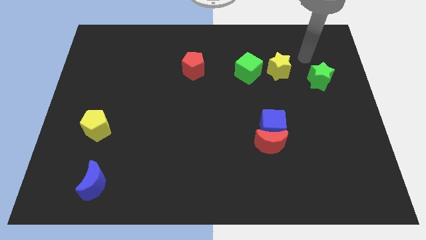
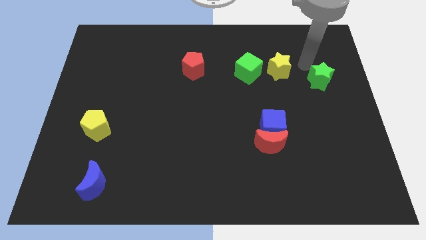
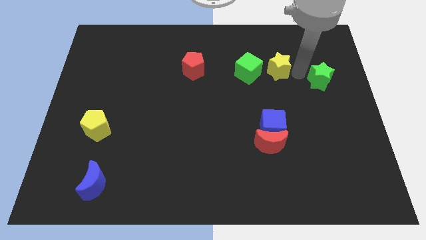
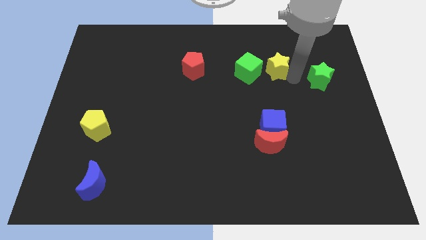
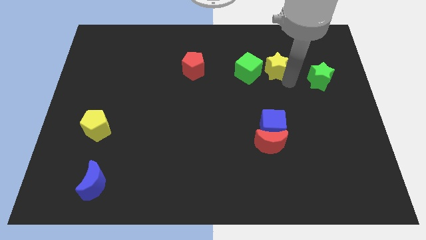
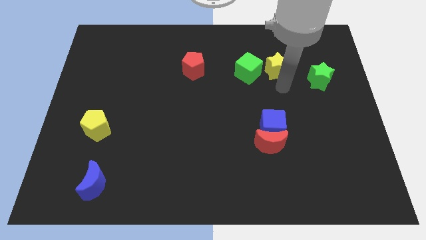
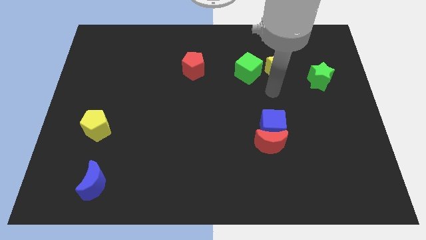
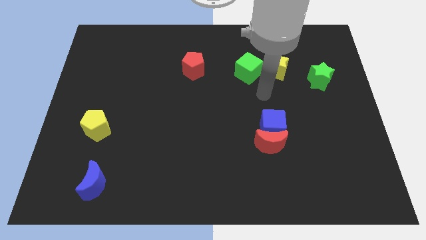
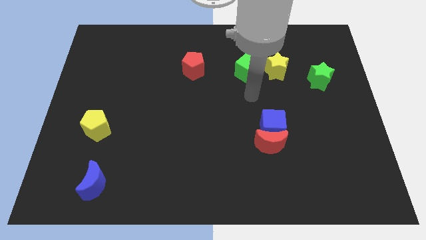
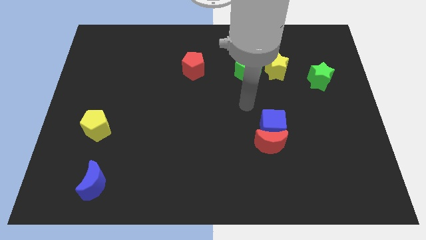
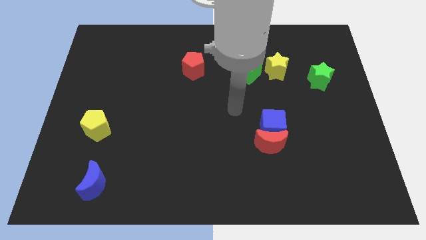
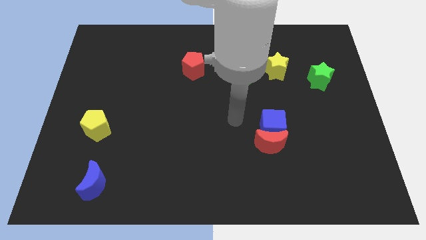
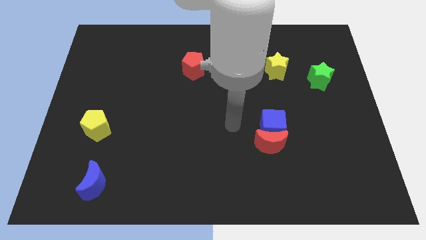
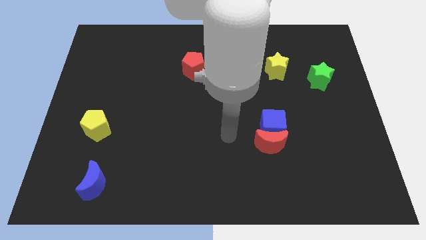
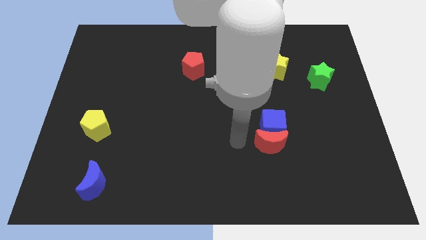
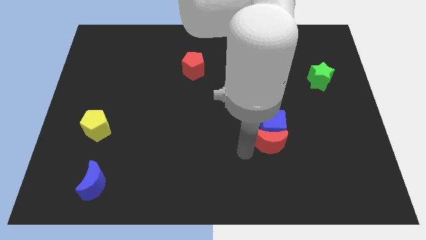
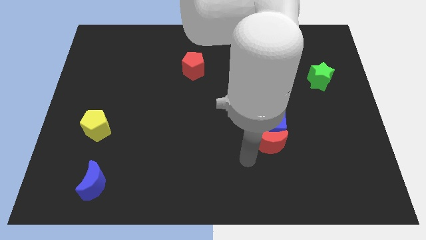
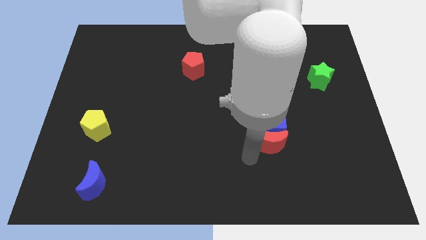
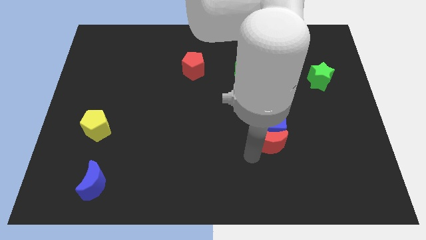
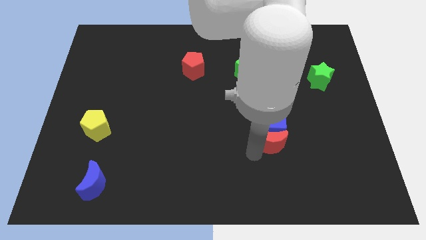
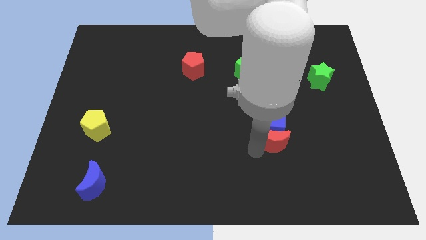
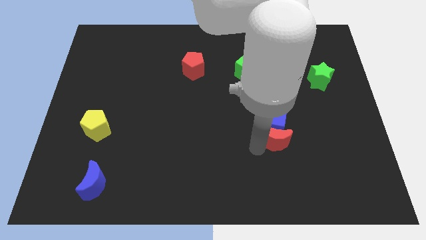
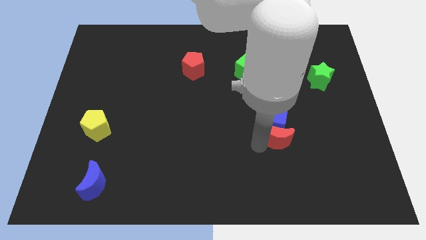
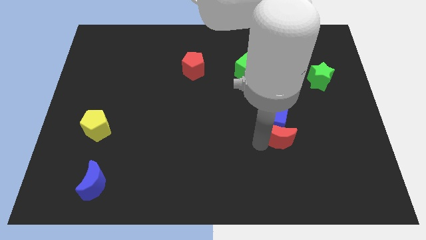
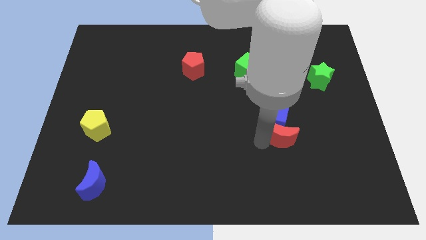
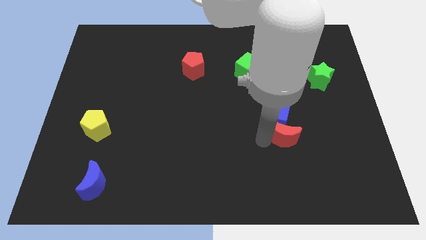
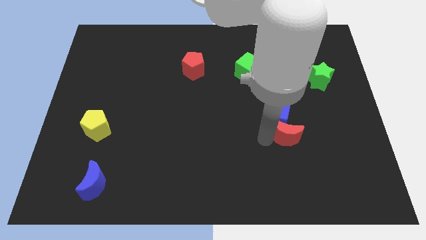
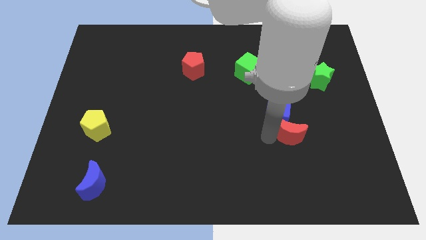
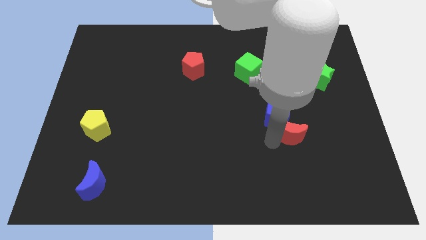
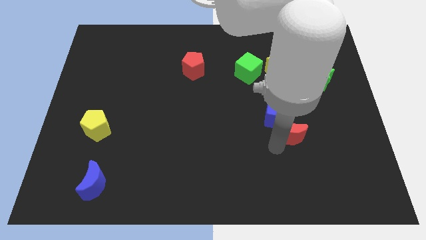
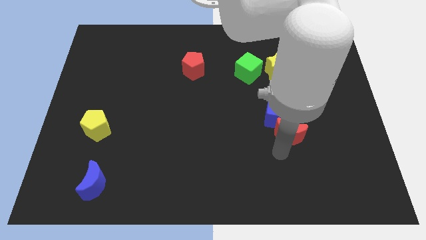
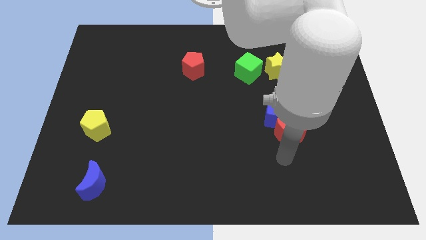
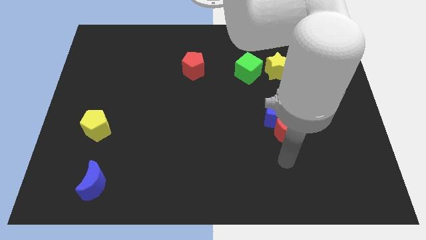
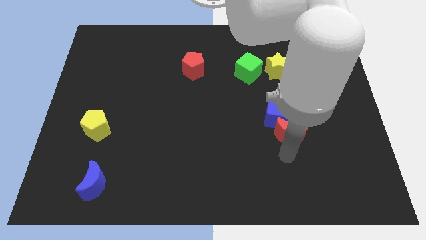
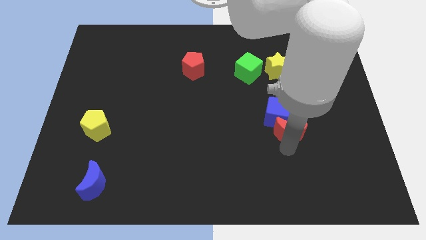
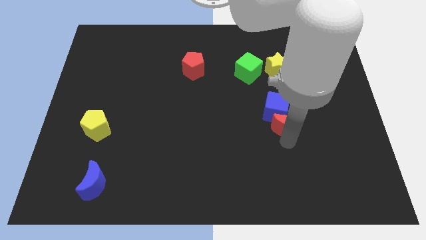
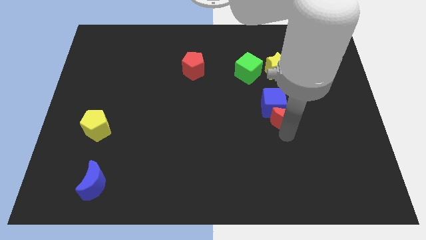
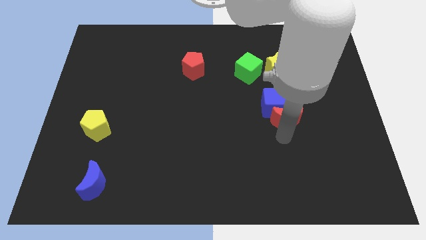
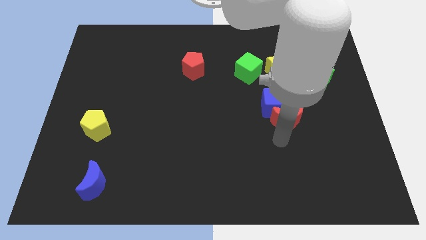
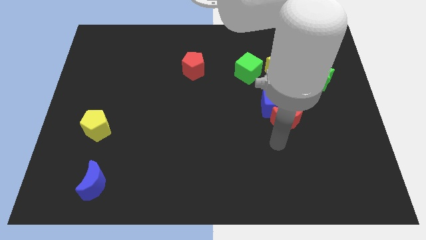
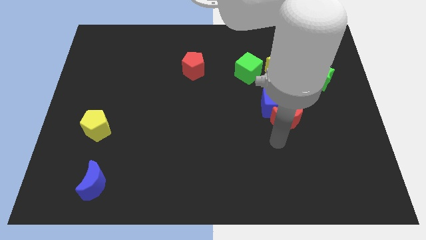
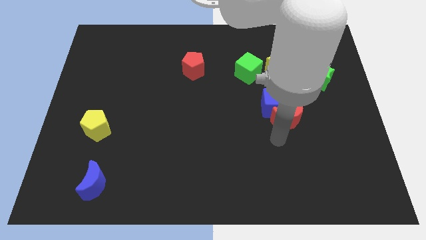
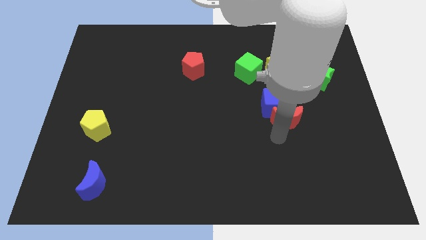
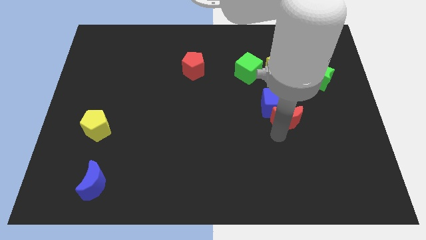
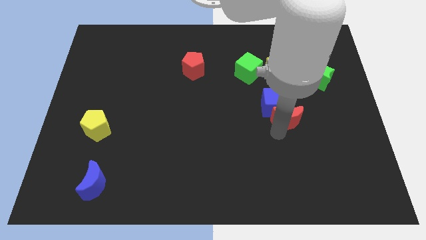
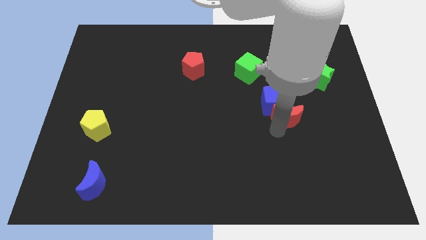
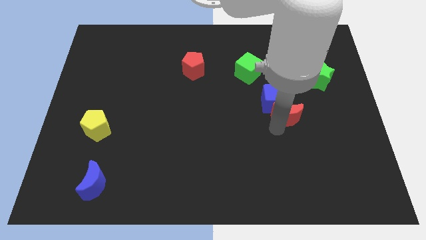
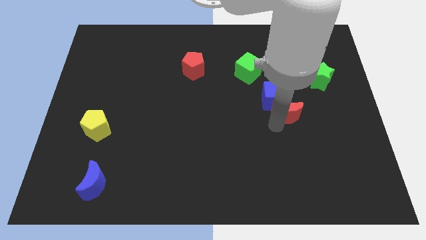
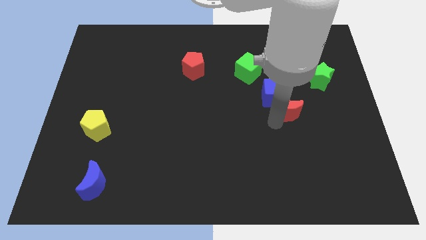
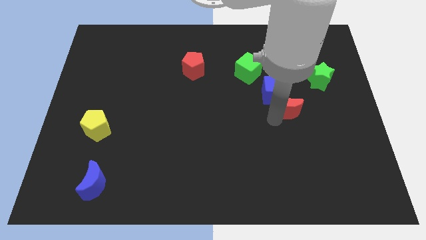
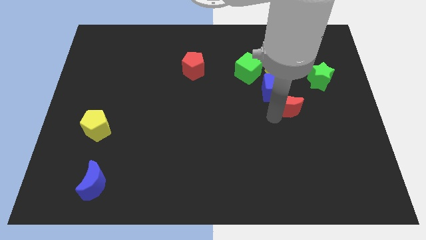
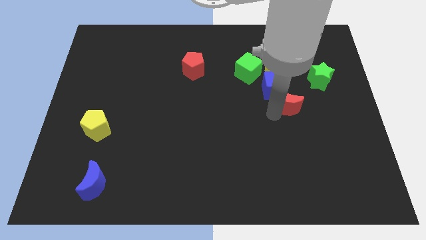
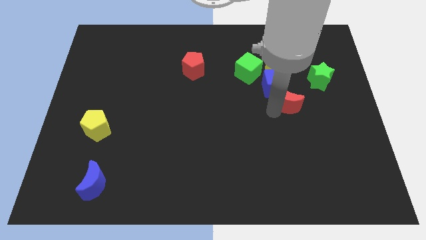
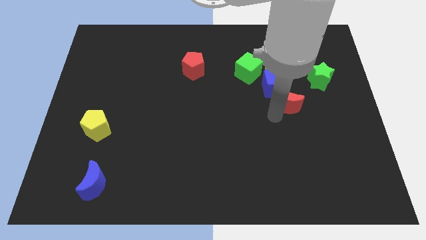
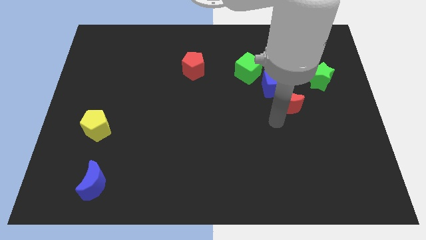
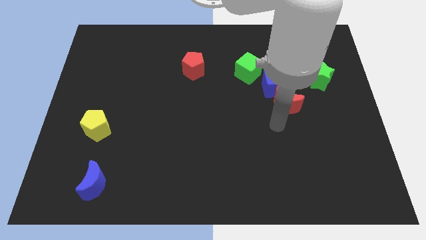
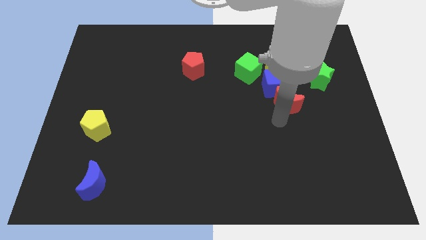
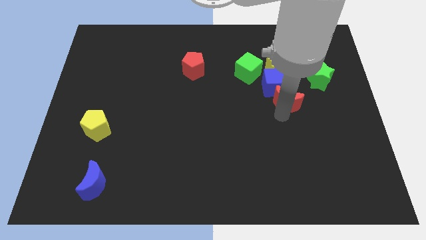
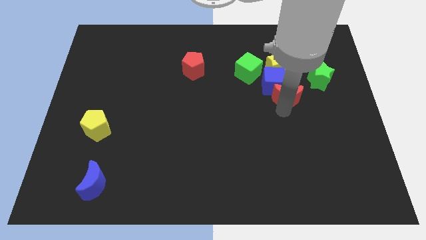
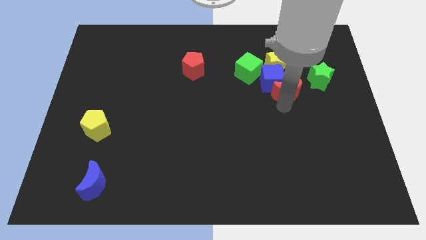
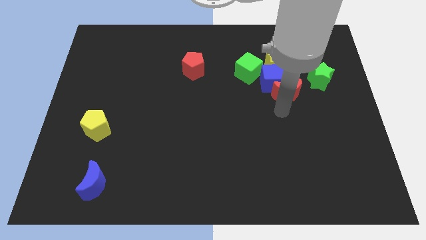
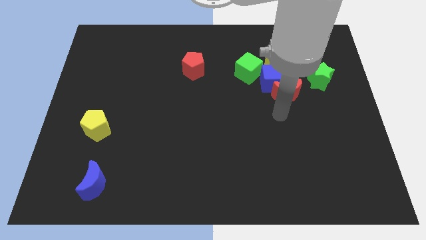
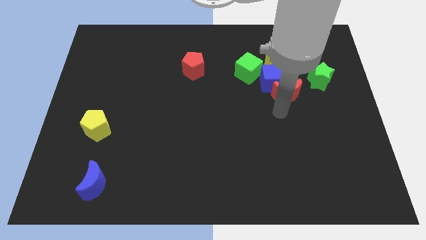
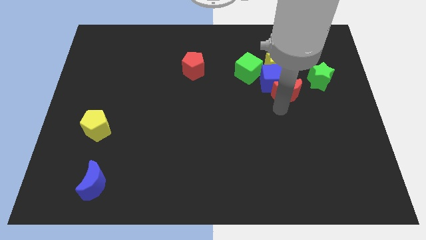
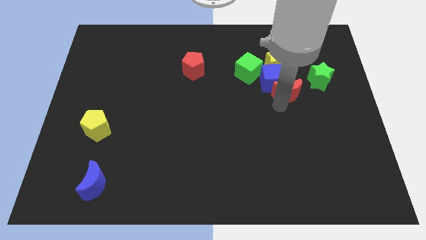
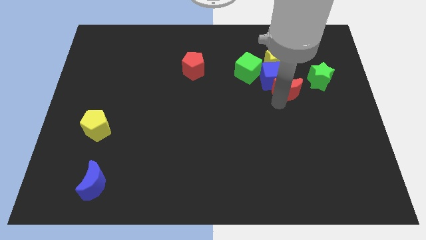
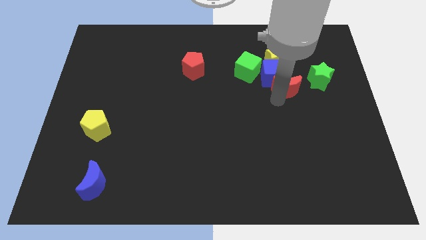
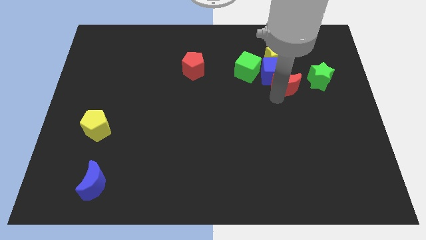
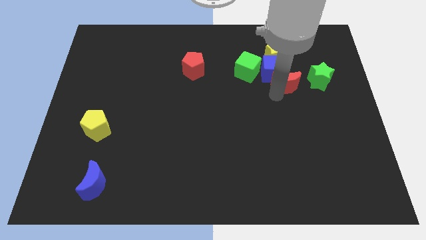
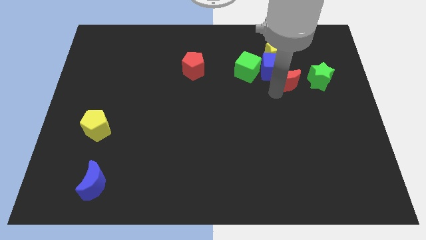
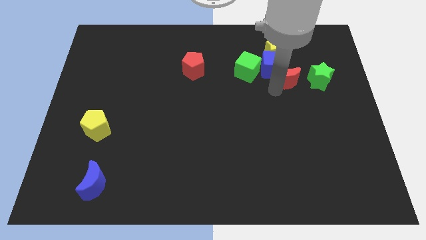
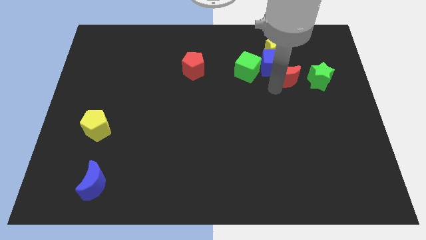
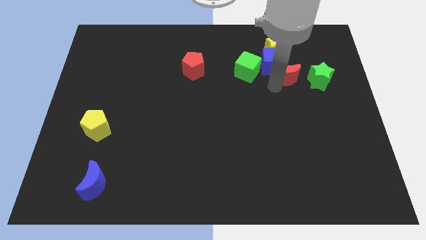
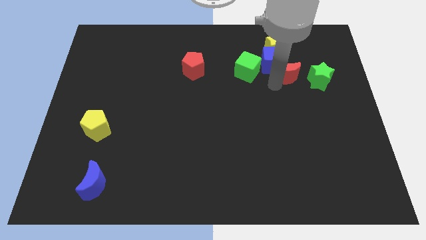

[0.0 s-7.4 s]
move the red moon diagonally up and to the left of the green star

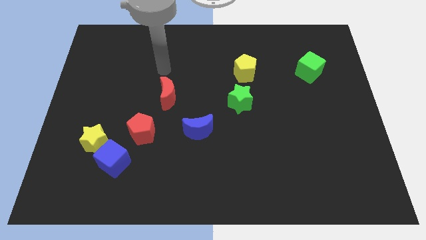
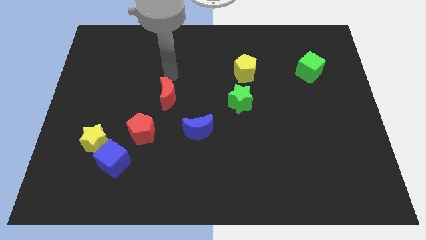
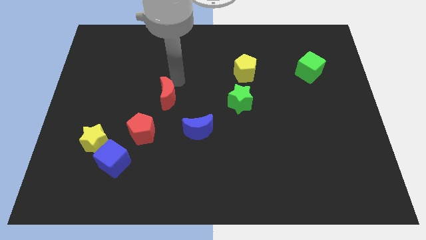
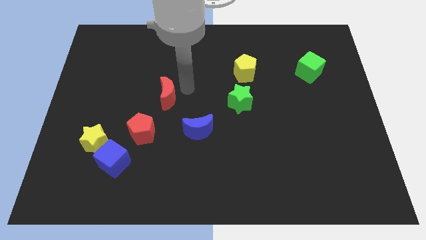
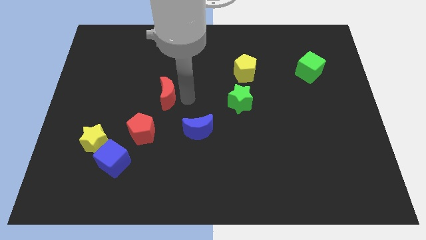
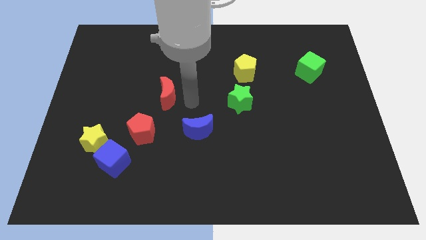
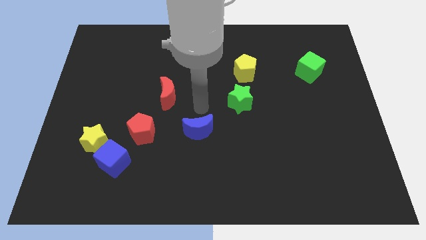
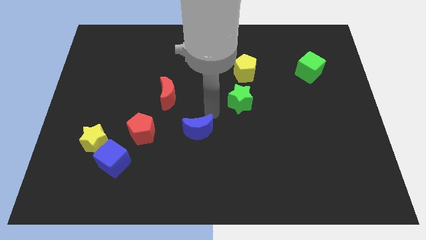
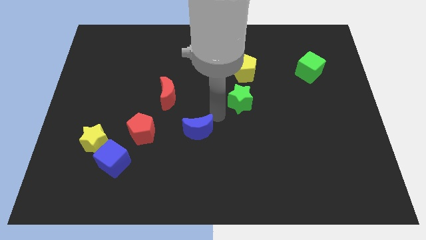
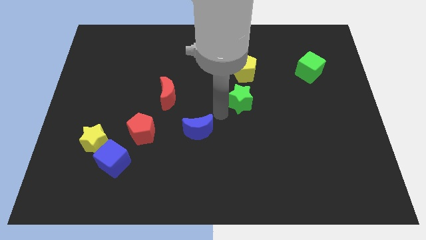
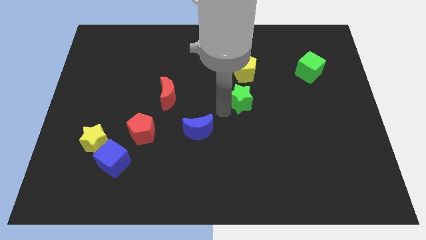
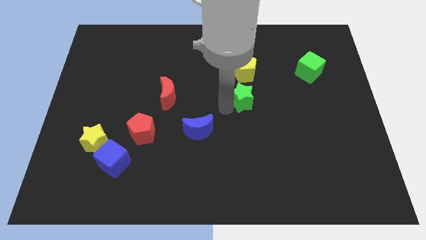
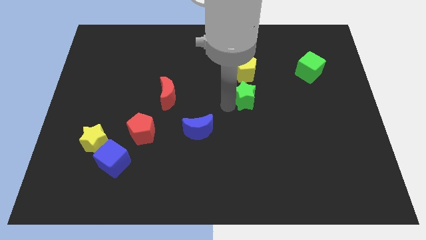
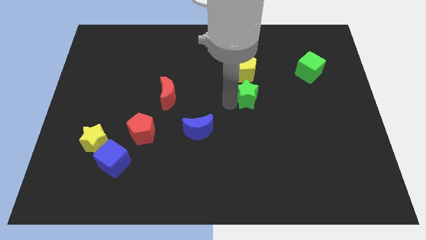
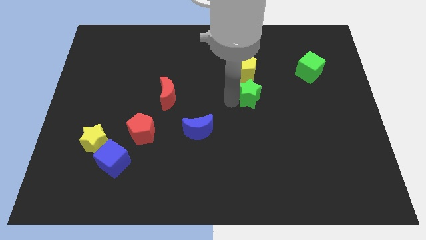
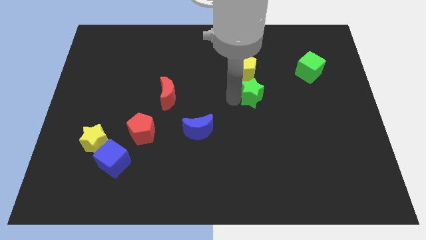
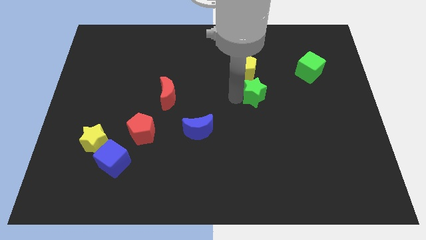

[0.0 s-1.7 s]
push the green star to the bottom right side of the yellow pentagon
